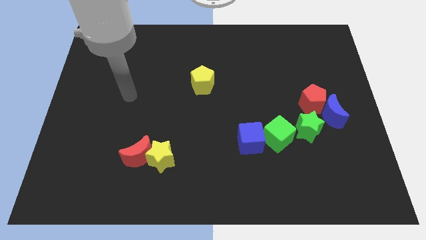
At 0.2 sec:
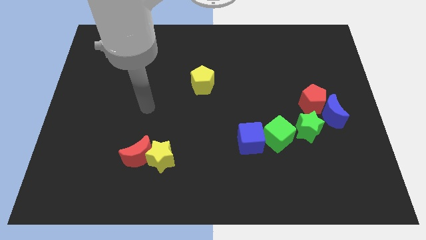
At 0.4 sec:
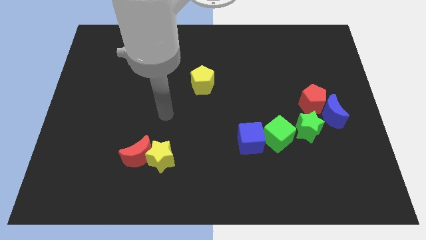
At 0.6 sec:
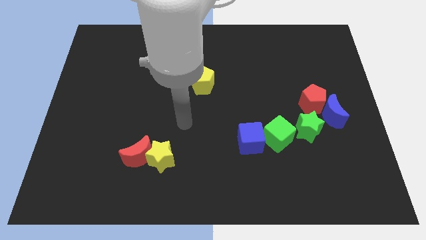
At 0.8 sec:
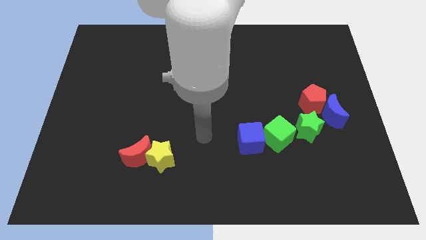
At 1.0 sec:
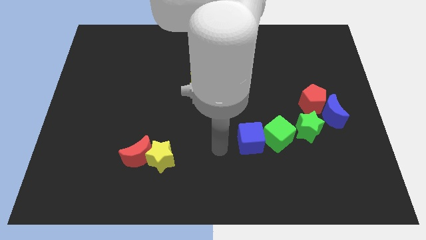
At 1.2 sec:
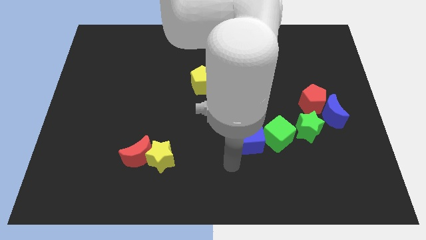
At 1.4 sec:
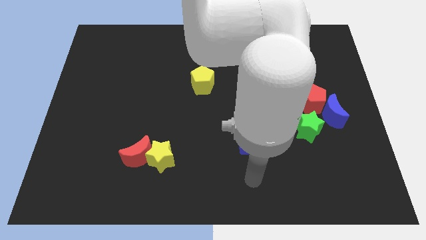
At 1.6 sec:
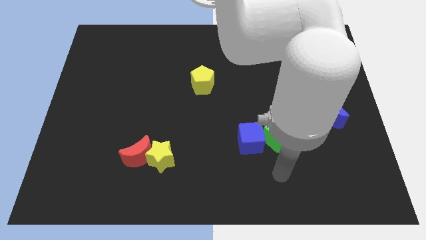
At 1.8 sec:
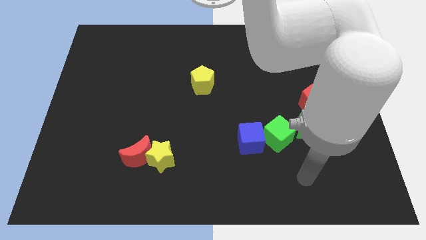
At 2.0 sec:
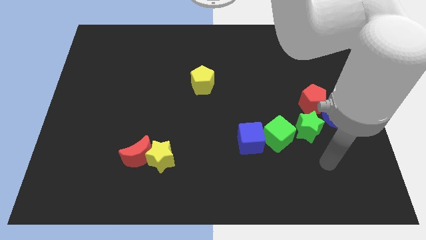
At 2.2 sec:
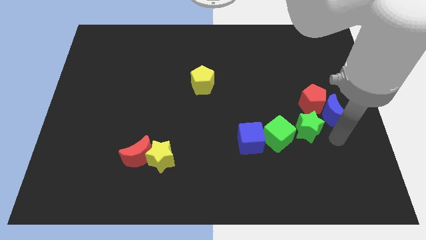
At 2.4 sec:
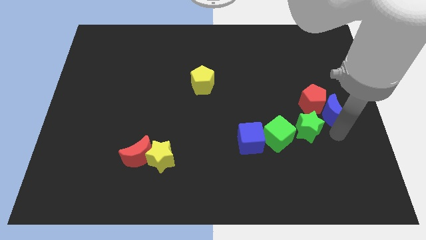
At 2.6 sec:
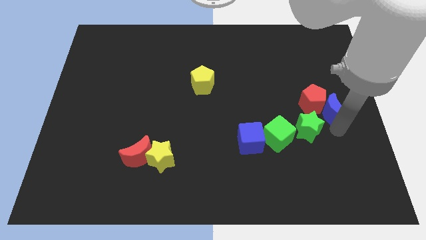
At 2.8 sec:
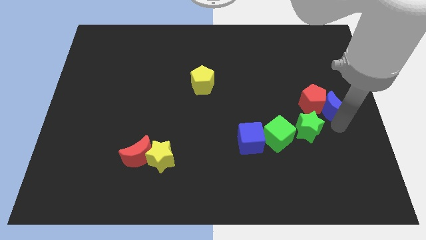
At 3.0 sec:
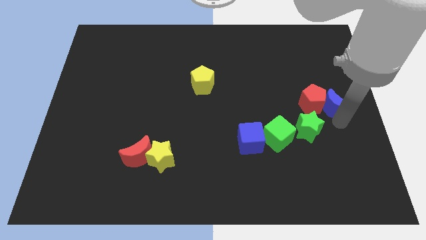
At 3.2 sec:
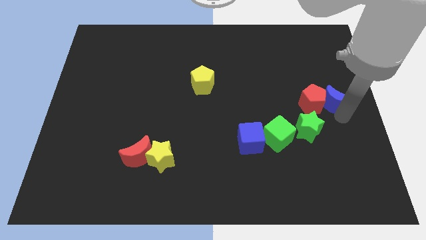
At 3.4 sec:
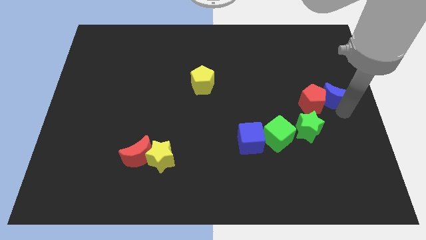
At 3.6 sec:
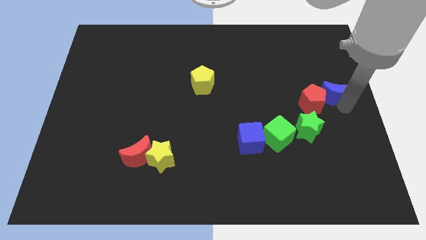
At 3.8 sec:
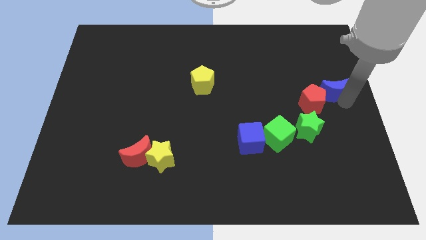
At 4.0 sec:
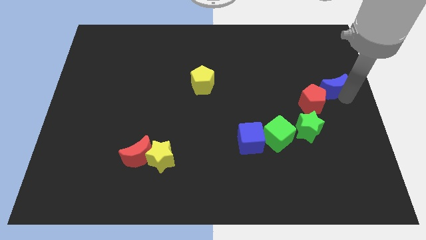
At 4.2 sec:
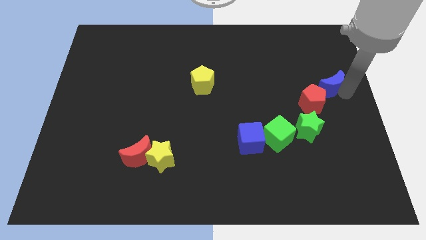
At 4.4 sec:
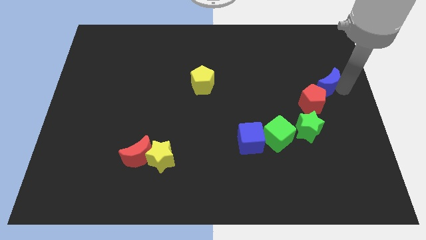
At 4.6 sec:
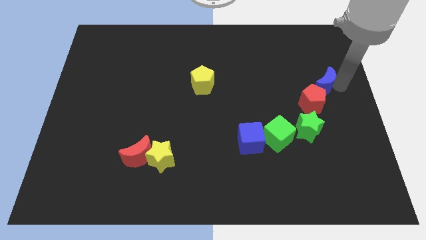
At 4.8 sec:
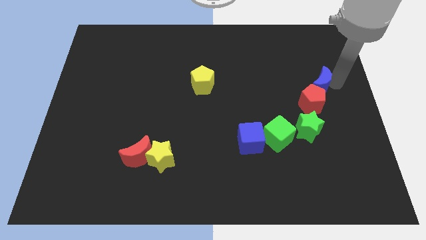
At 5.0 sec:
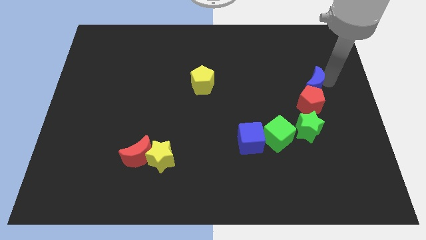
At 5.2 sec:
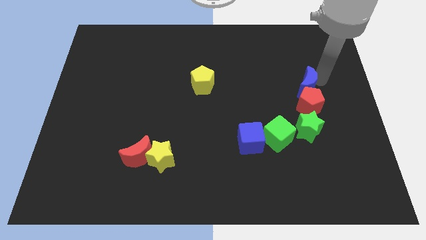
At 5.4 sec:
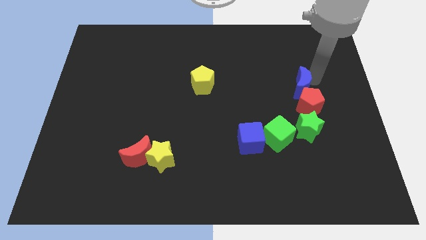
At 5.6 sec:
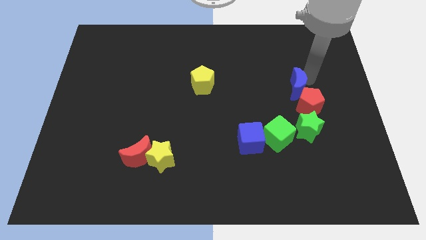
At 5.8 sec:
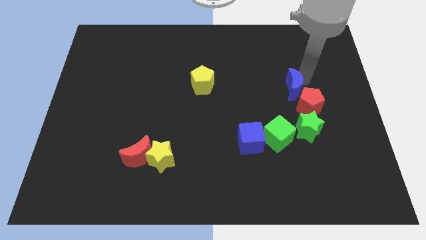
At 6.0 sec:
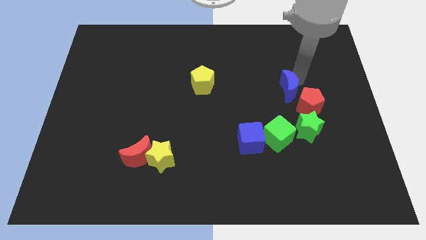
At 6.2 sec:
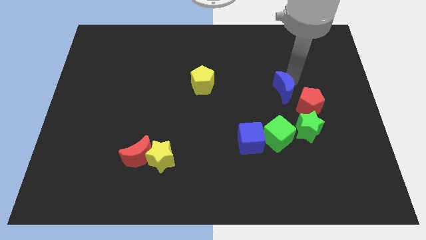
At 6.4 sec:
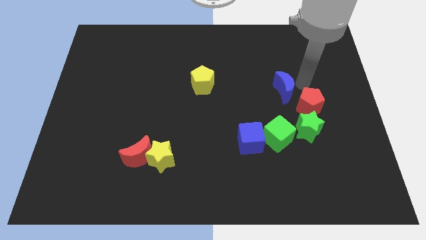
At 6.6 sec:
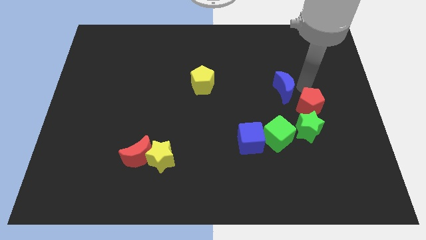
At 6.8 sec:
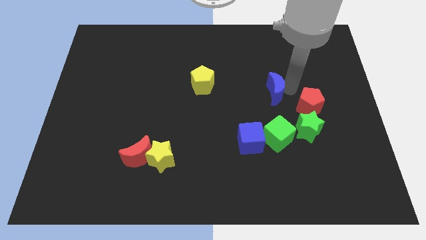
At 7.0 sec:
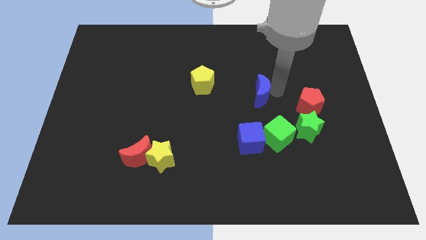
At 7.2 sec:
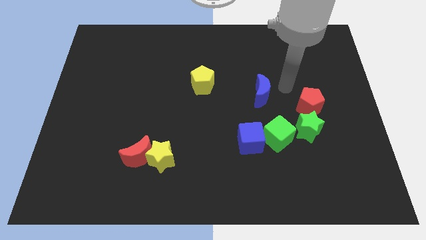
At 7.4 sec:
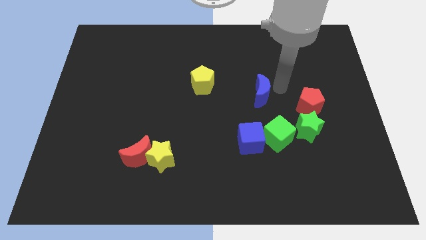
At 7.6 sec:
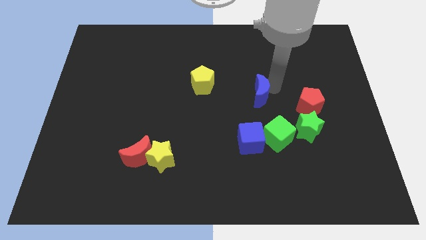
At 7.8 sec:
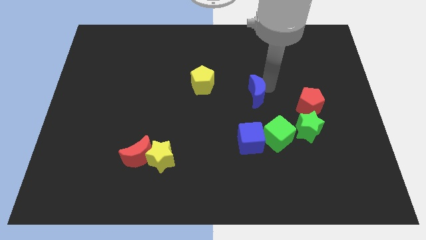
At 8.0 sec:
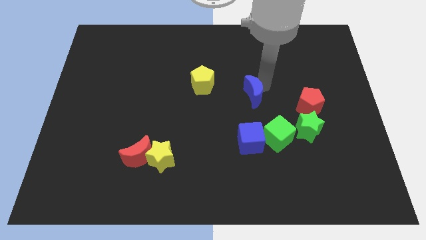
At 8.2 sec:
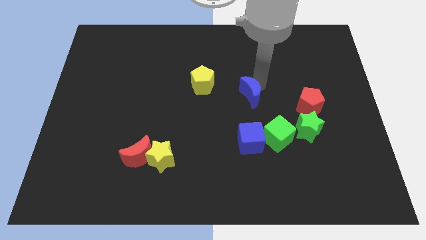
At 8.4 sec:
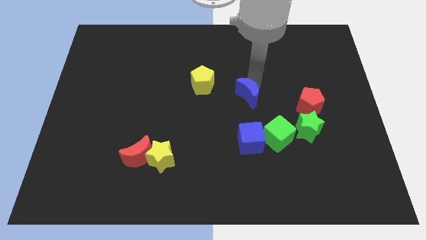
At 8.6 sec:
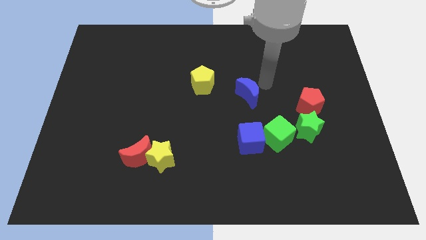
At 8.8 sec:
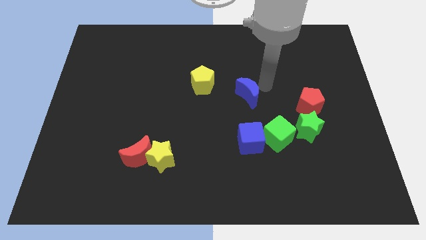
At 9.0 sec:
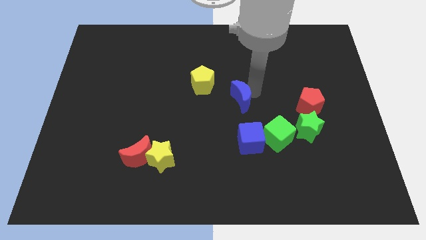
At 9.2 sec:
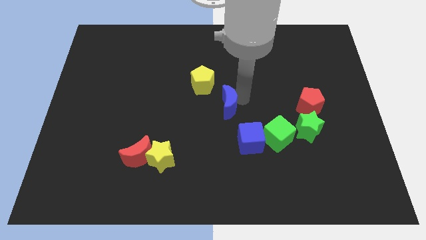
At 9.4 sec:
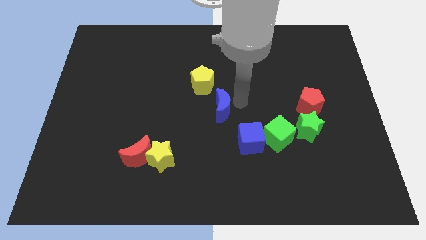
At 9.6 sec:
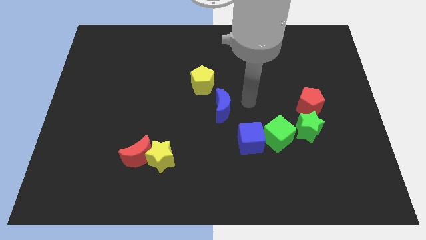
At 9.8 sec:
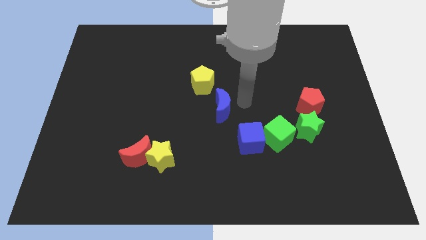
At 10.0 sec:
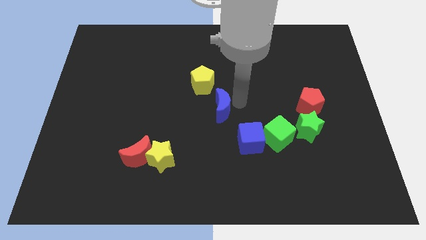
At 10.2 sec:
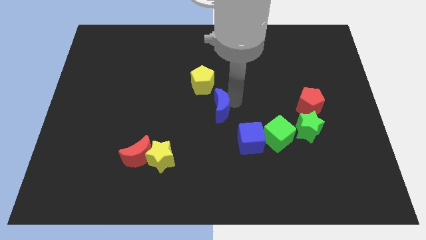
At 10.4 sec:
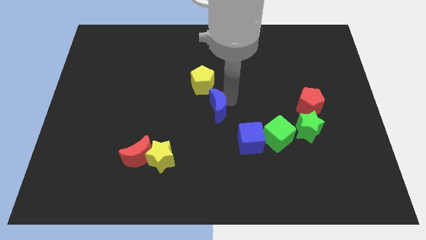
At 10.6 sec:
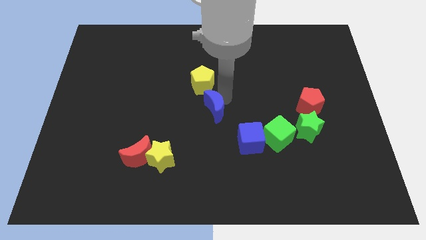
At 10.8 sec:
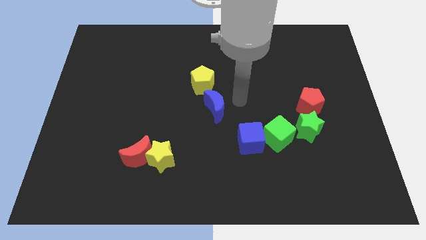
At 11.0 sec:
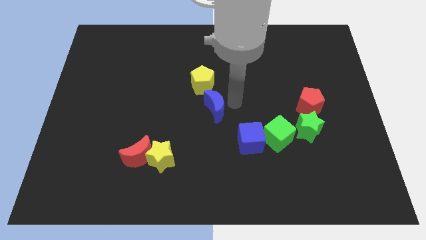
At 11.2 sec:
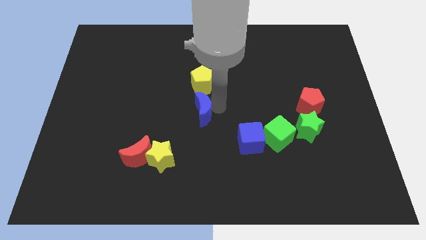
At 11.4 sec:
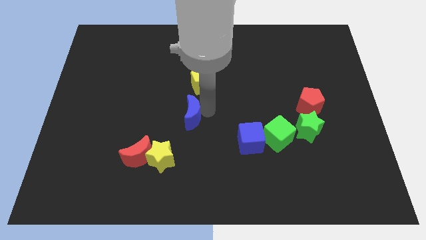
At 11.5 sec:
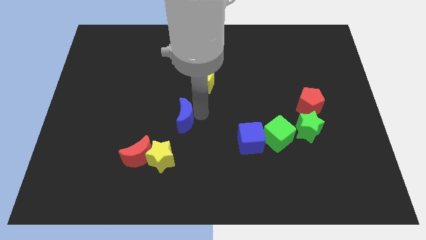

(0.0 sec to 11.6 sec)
put the blue moon to the top side of the yellow star

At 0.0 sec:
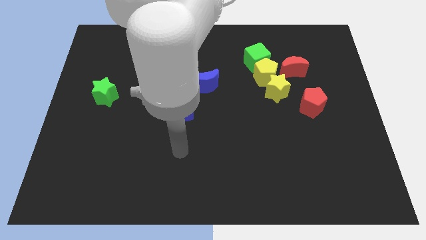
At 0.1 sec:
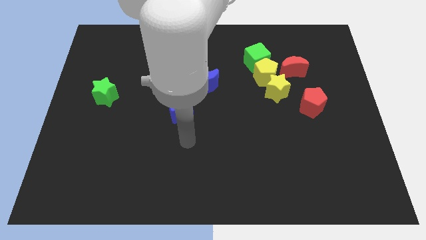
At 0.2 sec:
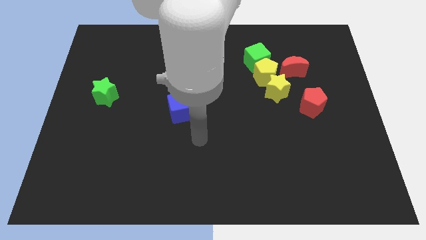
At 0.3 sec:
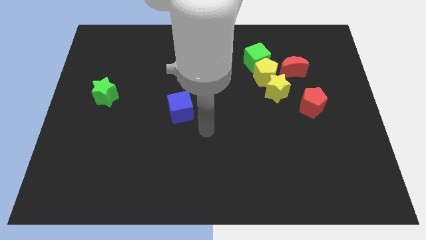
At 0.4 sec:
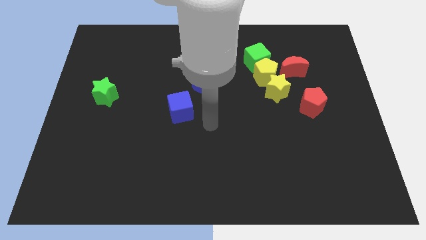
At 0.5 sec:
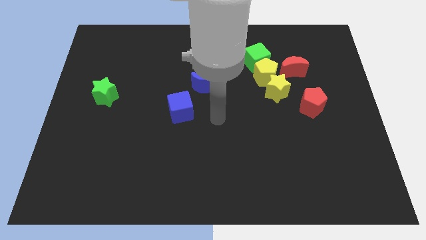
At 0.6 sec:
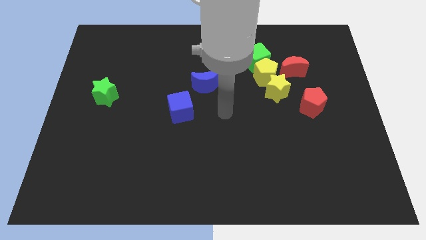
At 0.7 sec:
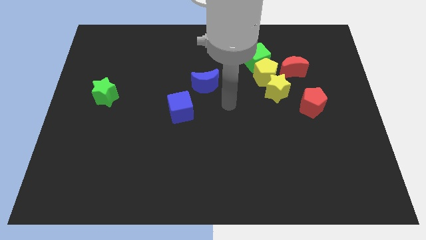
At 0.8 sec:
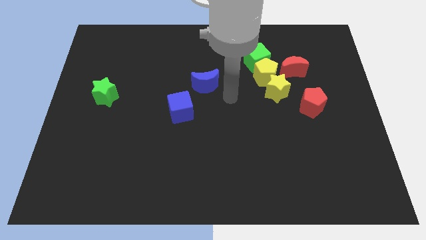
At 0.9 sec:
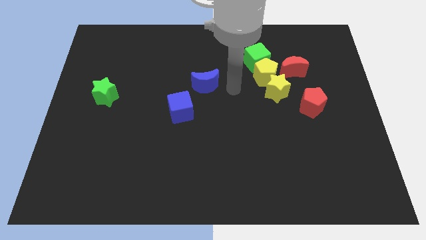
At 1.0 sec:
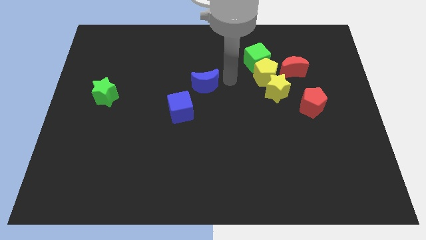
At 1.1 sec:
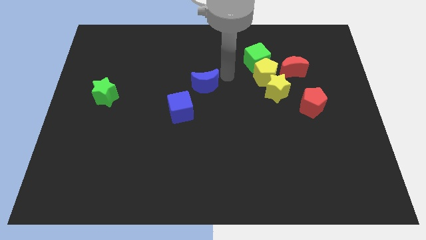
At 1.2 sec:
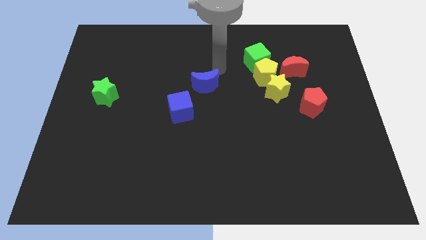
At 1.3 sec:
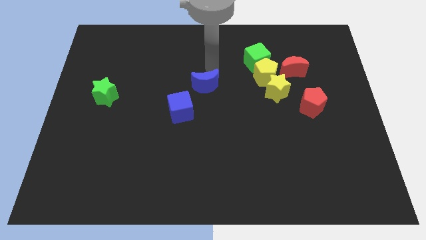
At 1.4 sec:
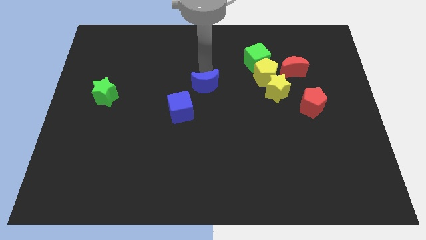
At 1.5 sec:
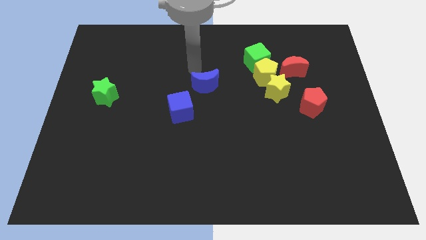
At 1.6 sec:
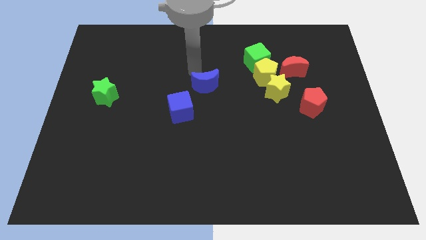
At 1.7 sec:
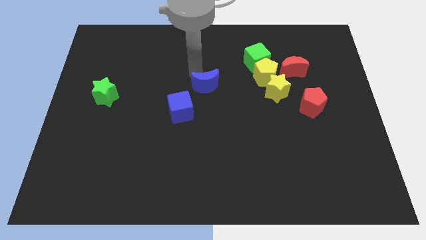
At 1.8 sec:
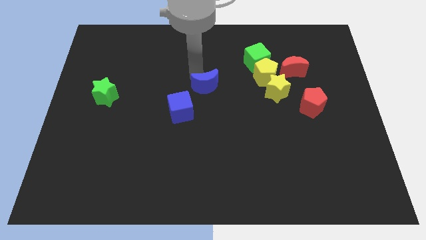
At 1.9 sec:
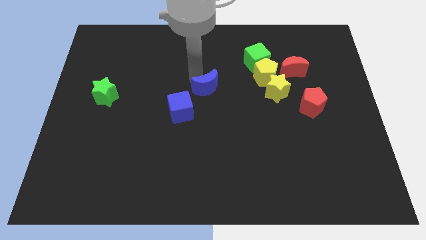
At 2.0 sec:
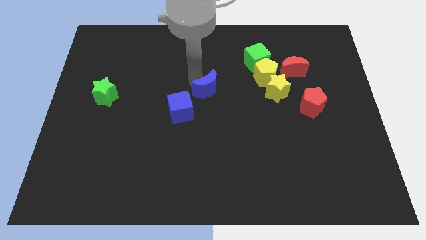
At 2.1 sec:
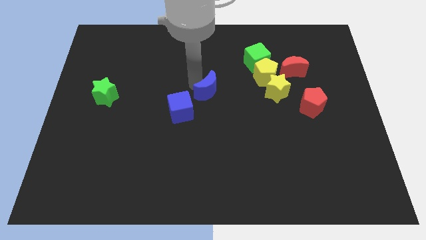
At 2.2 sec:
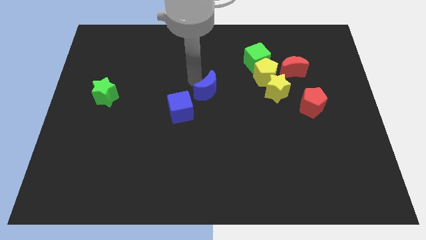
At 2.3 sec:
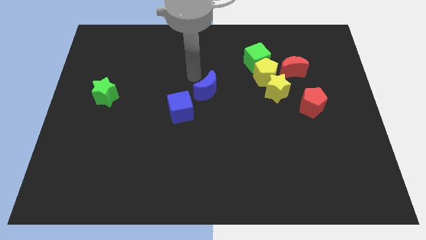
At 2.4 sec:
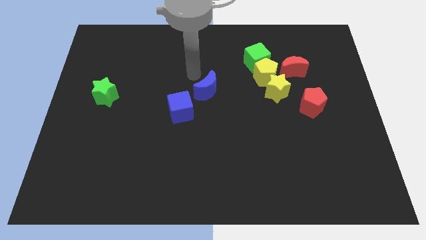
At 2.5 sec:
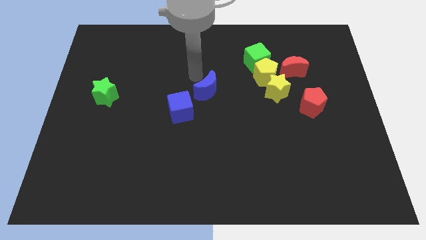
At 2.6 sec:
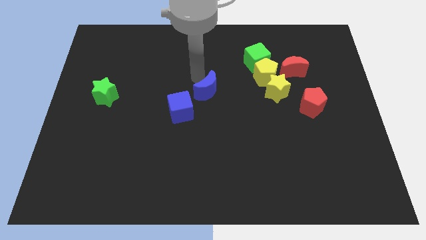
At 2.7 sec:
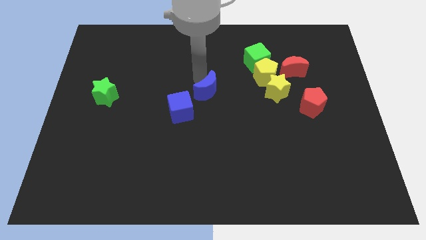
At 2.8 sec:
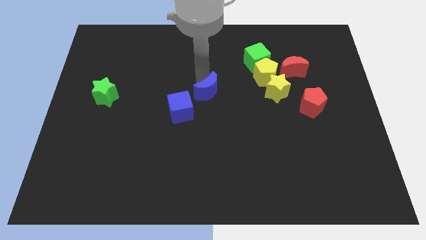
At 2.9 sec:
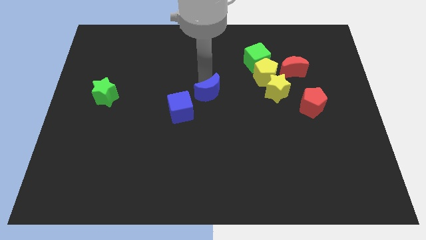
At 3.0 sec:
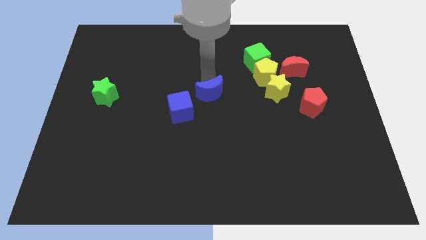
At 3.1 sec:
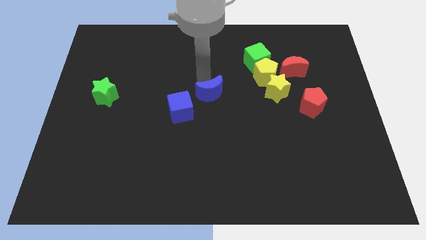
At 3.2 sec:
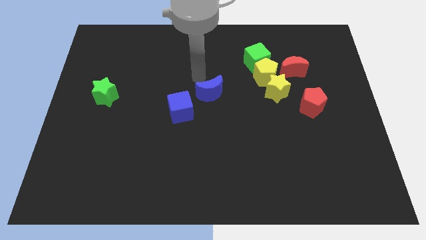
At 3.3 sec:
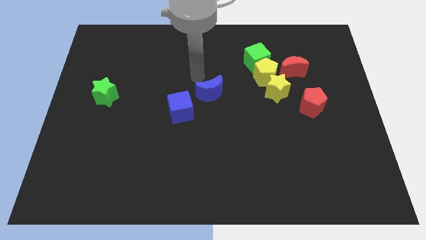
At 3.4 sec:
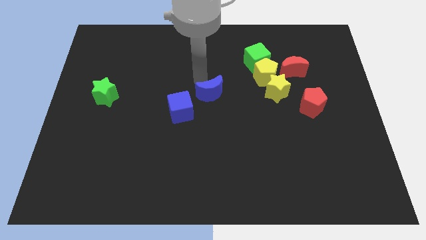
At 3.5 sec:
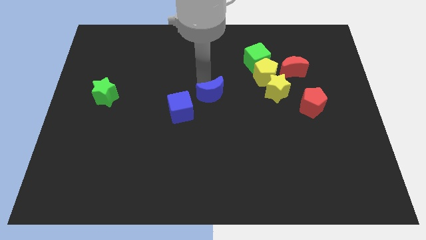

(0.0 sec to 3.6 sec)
push the blue moon just right of the blue cube
